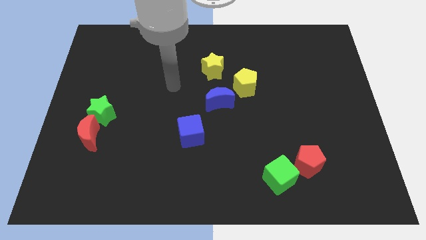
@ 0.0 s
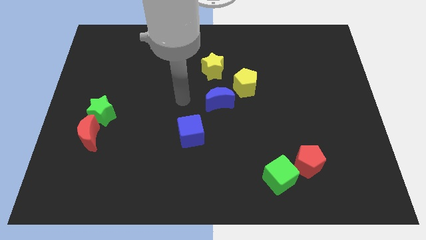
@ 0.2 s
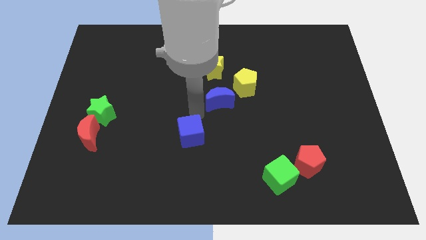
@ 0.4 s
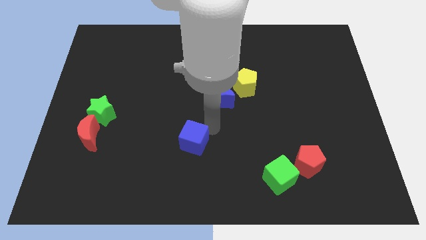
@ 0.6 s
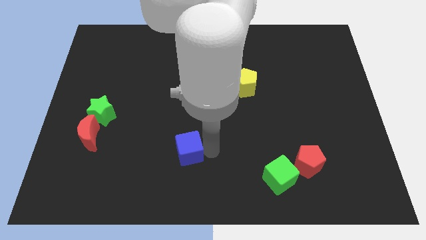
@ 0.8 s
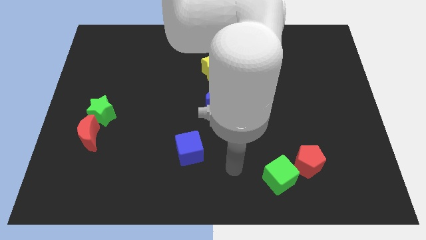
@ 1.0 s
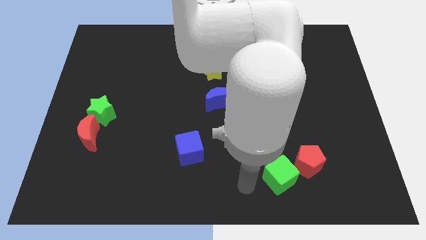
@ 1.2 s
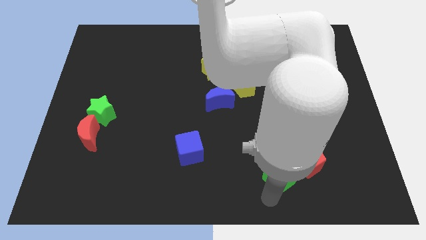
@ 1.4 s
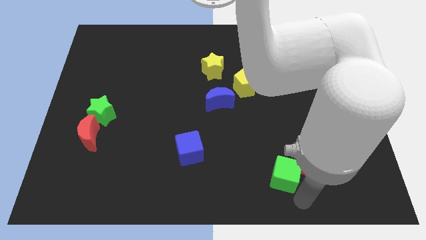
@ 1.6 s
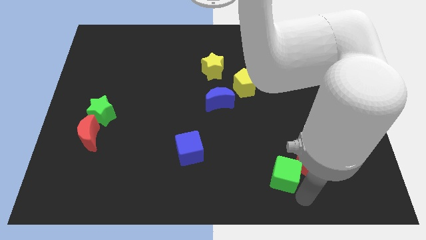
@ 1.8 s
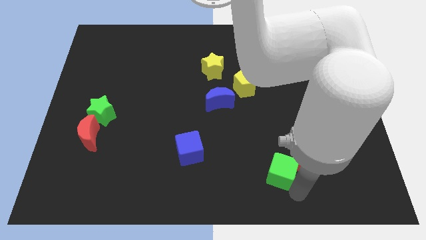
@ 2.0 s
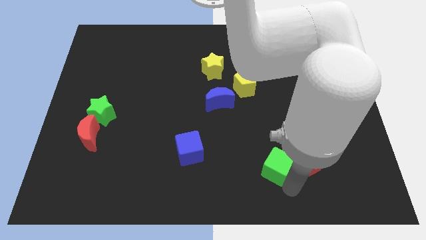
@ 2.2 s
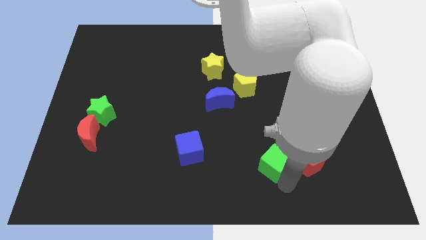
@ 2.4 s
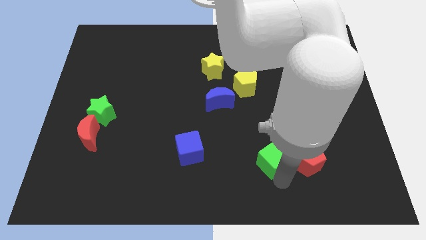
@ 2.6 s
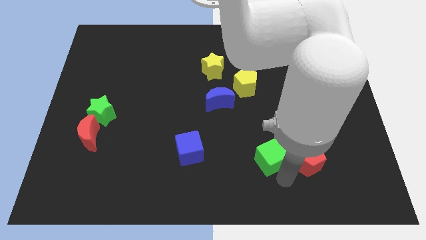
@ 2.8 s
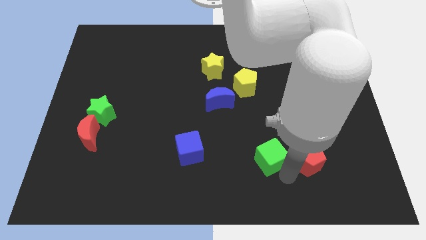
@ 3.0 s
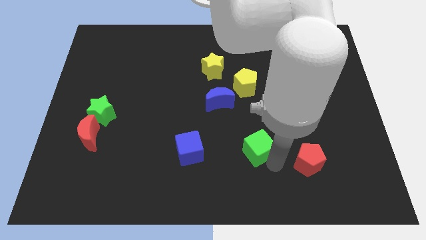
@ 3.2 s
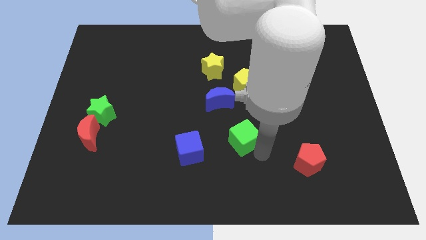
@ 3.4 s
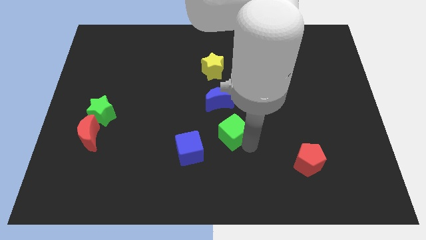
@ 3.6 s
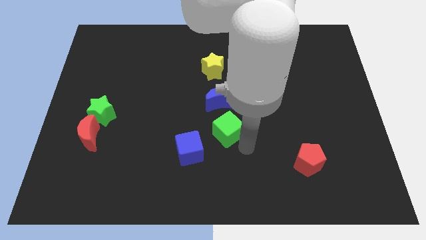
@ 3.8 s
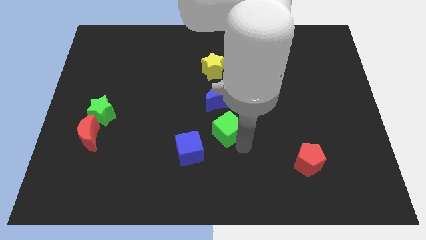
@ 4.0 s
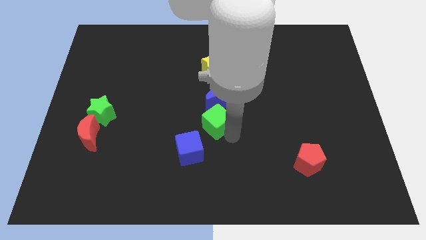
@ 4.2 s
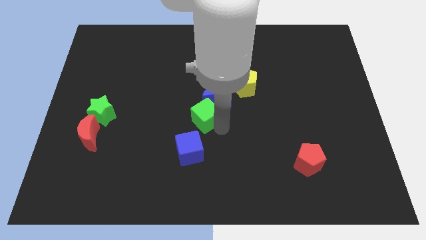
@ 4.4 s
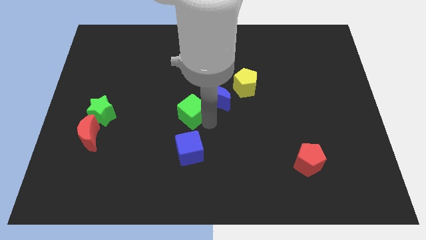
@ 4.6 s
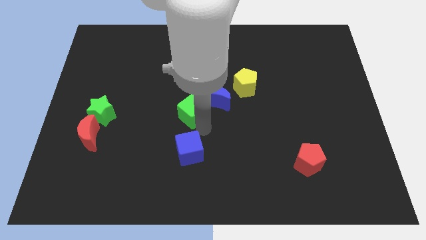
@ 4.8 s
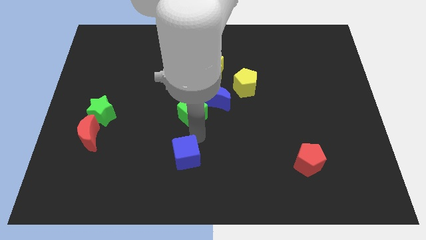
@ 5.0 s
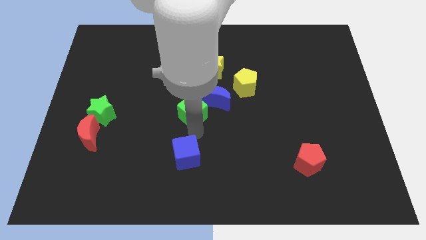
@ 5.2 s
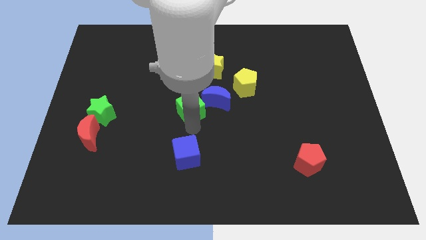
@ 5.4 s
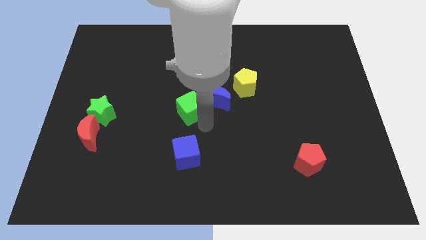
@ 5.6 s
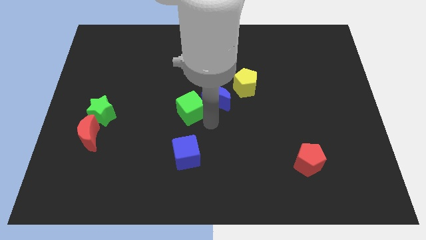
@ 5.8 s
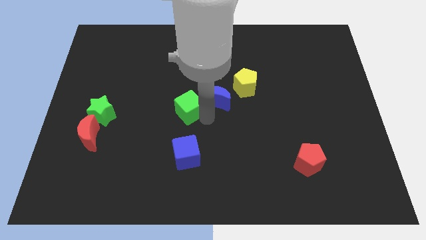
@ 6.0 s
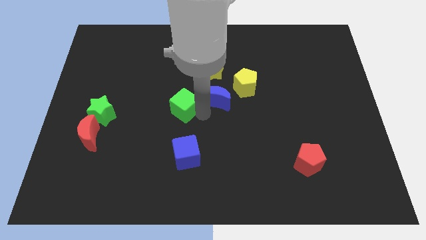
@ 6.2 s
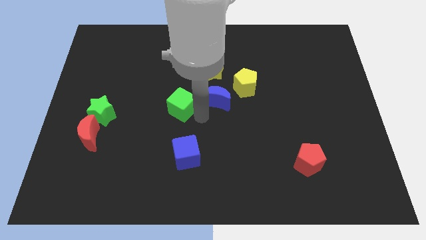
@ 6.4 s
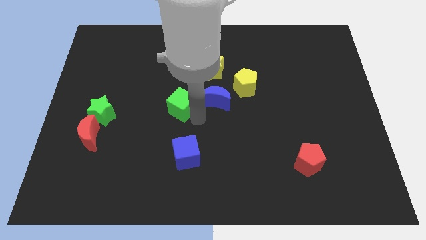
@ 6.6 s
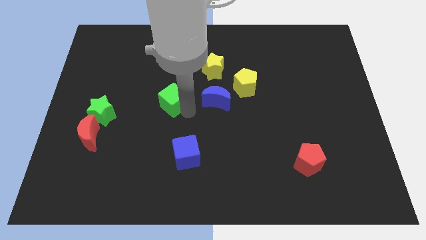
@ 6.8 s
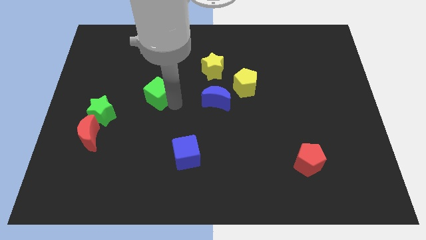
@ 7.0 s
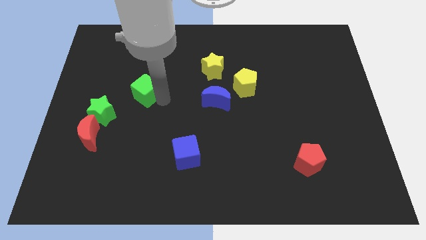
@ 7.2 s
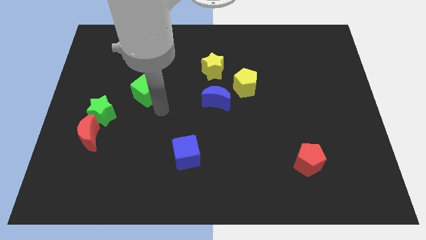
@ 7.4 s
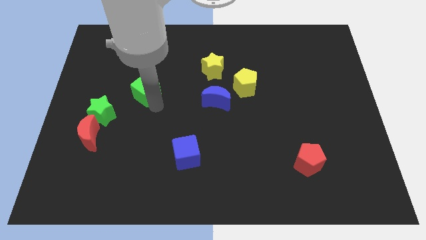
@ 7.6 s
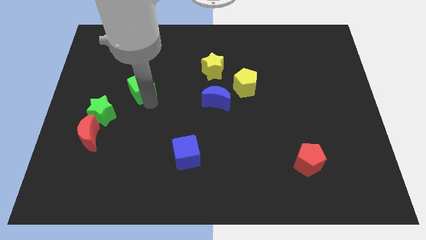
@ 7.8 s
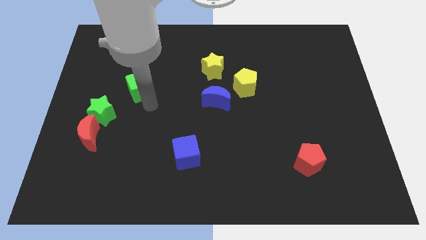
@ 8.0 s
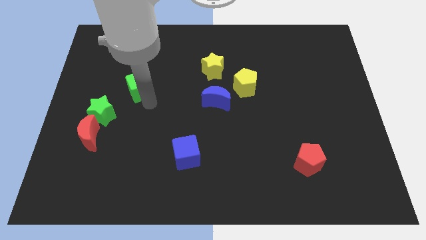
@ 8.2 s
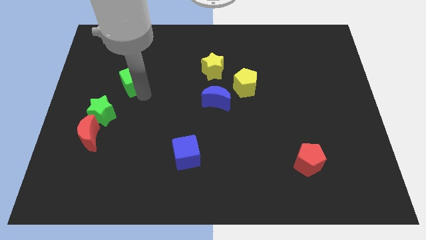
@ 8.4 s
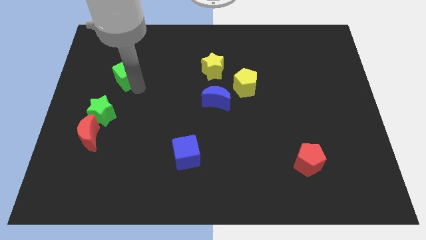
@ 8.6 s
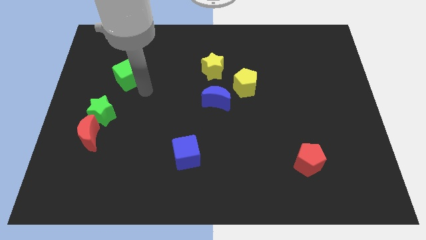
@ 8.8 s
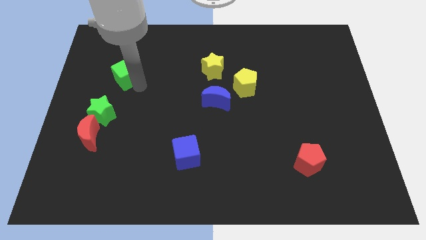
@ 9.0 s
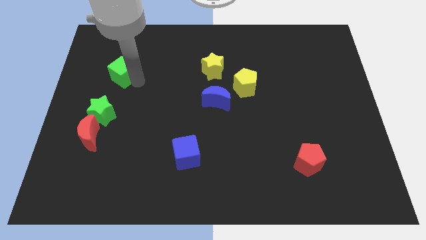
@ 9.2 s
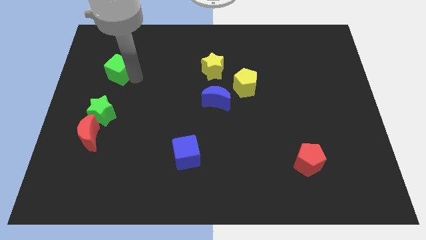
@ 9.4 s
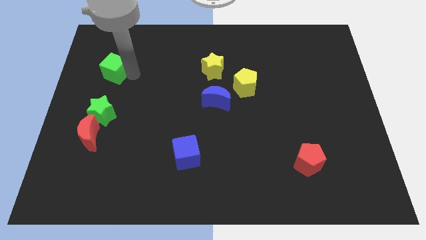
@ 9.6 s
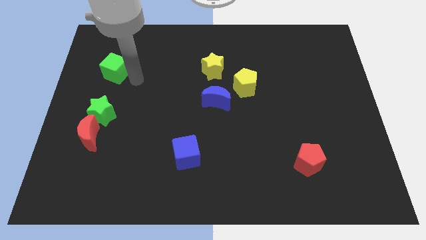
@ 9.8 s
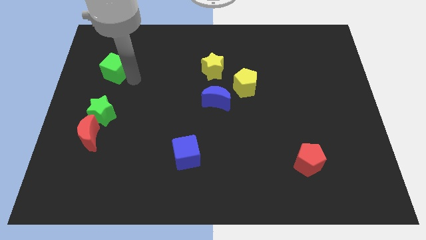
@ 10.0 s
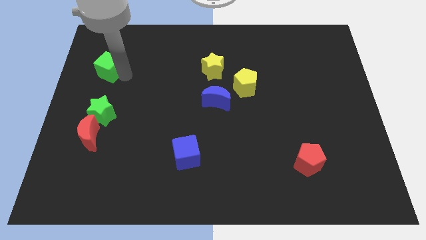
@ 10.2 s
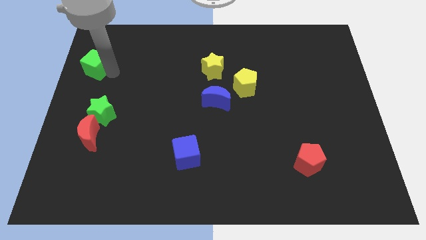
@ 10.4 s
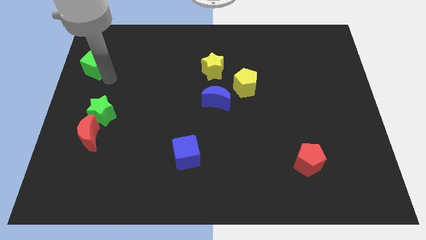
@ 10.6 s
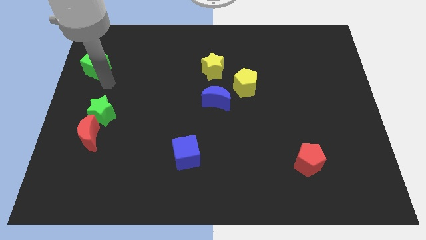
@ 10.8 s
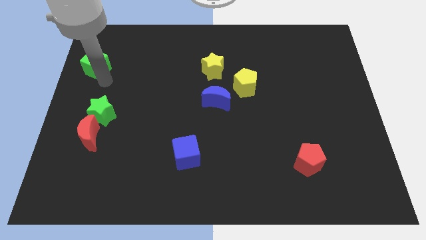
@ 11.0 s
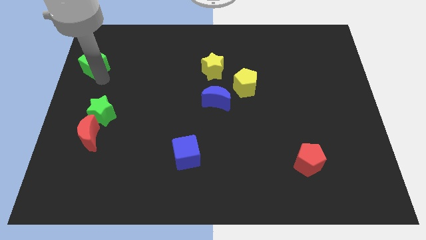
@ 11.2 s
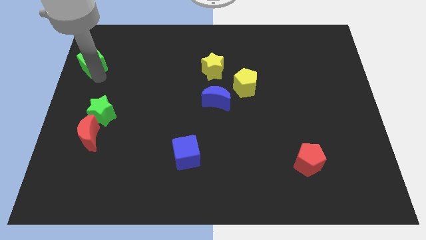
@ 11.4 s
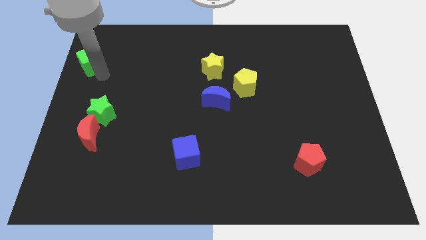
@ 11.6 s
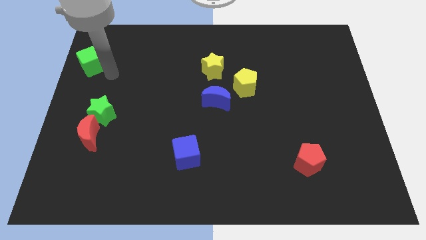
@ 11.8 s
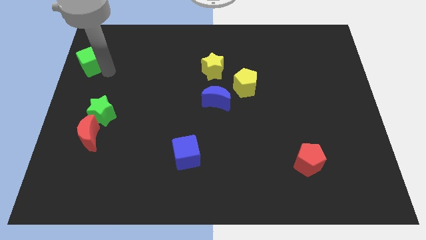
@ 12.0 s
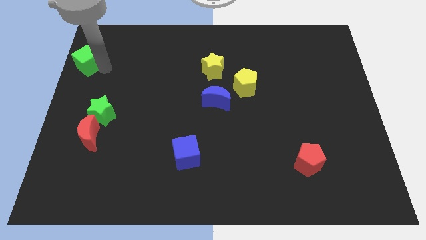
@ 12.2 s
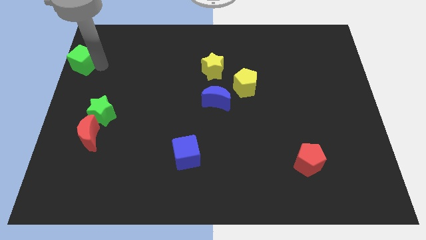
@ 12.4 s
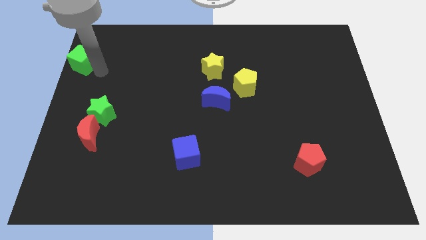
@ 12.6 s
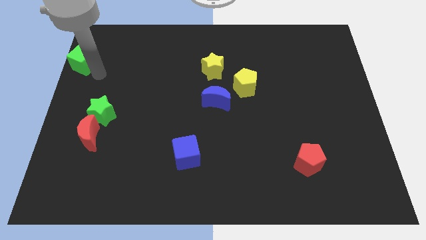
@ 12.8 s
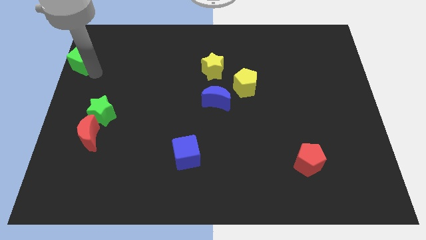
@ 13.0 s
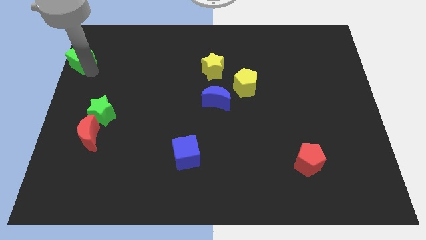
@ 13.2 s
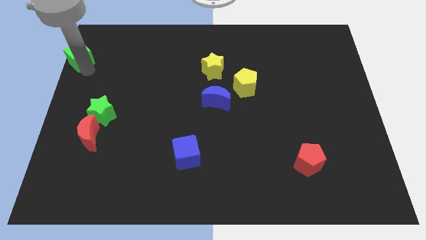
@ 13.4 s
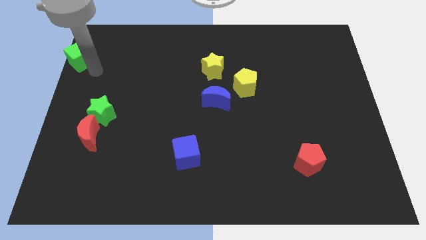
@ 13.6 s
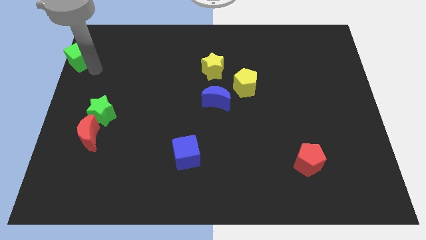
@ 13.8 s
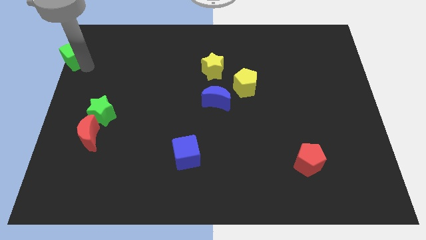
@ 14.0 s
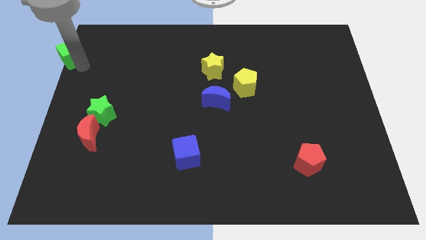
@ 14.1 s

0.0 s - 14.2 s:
push the green cube to the upper left corner
